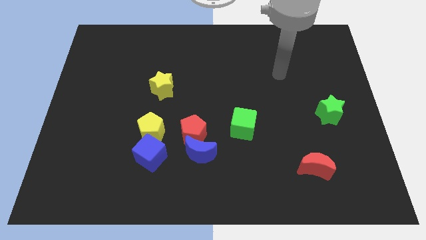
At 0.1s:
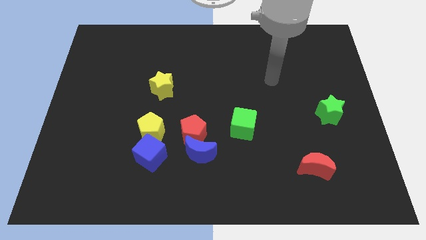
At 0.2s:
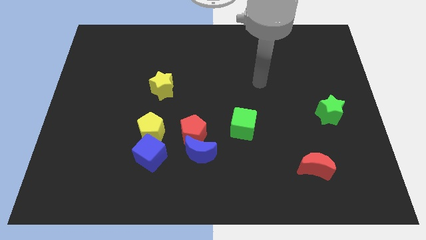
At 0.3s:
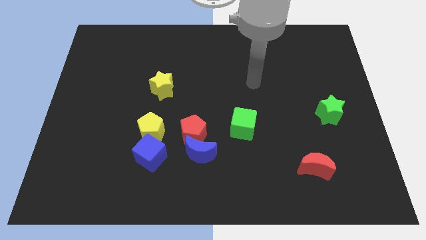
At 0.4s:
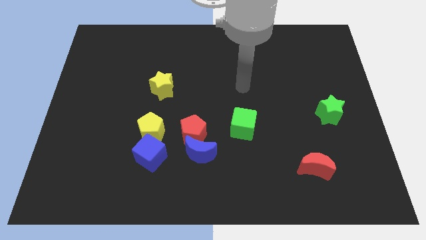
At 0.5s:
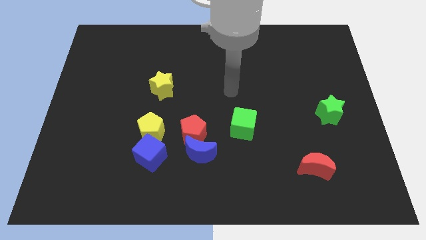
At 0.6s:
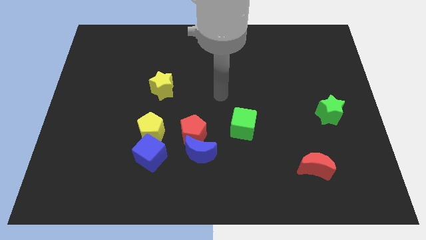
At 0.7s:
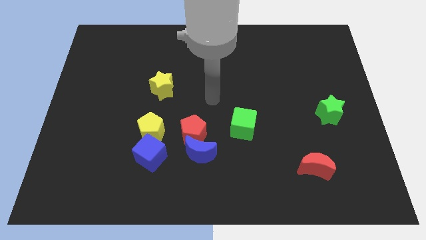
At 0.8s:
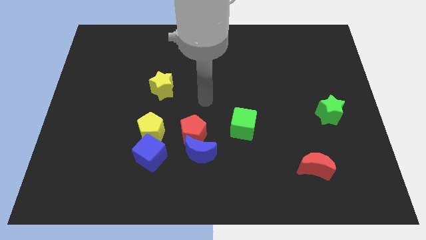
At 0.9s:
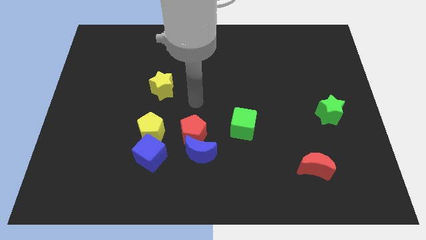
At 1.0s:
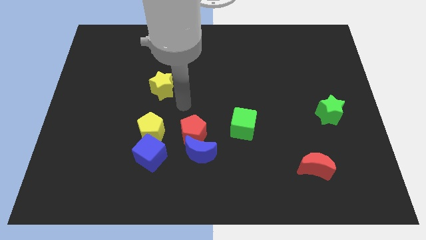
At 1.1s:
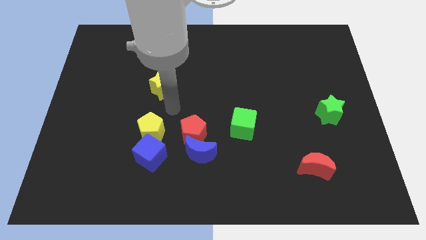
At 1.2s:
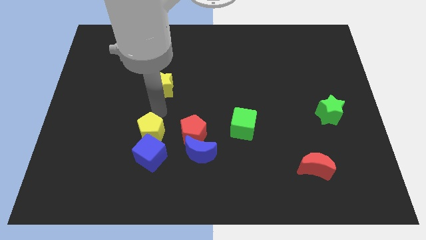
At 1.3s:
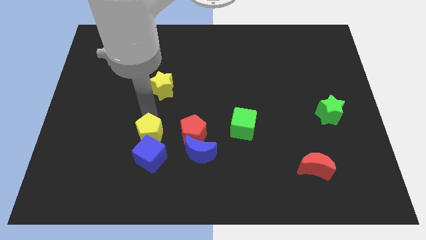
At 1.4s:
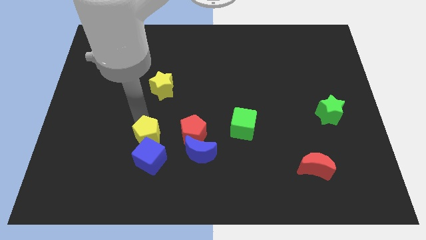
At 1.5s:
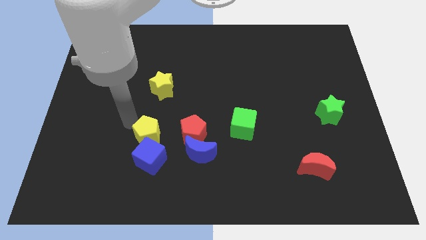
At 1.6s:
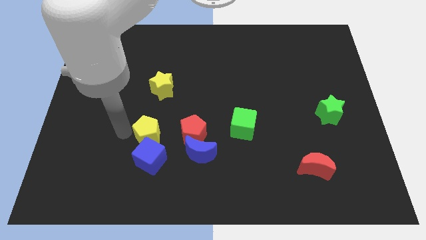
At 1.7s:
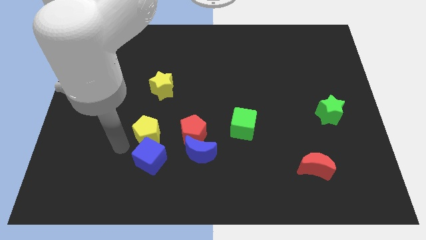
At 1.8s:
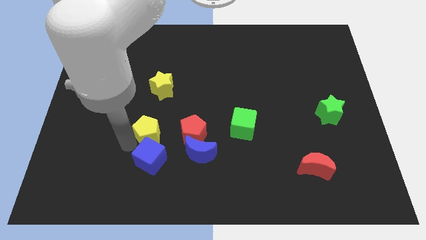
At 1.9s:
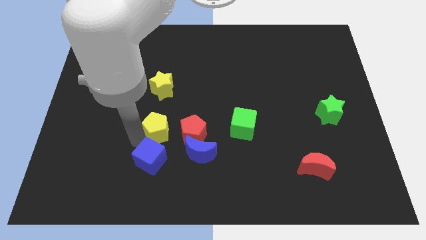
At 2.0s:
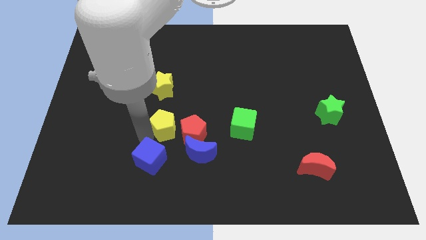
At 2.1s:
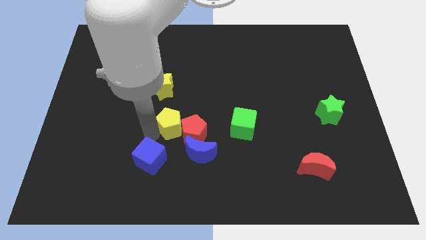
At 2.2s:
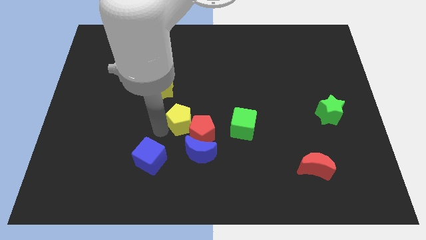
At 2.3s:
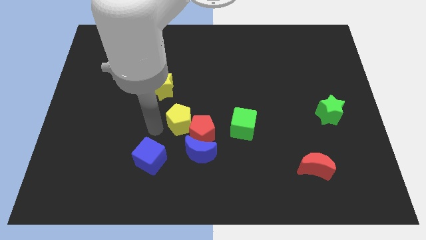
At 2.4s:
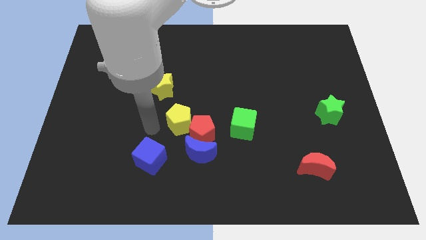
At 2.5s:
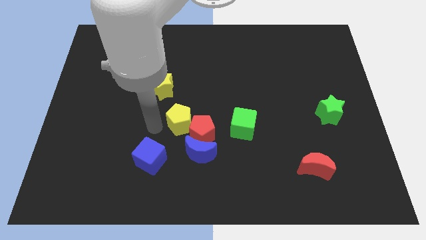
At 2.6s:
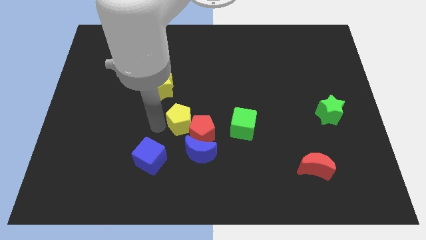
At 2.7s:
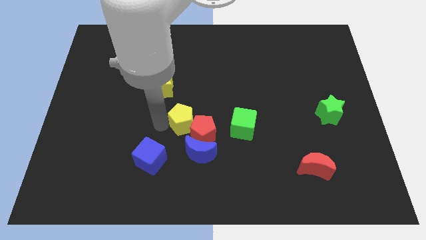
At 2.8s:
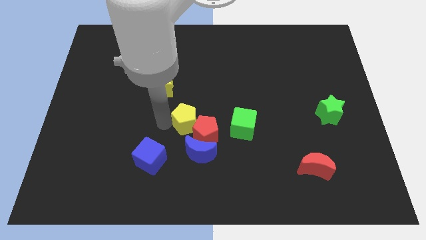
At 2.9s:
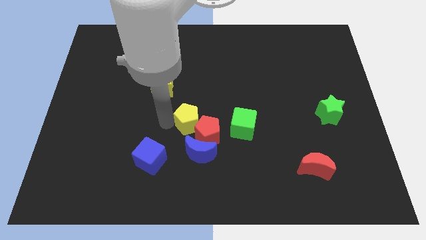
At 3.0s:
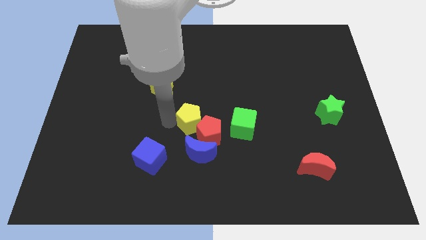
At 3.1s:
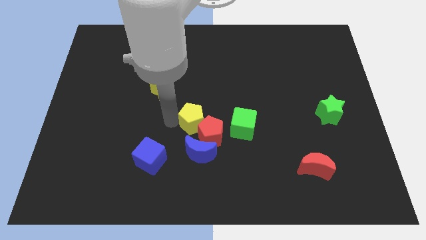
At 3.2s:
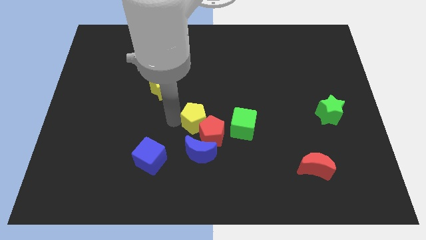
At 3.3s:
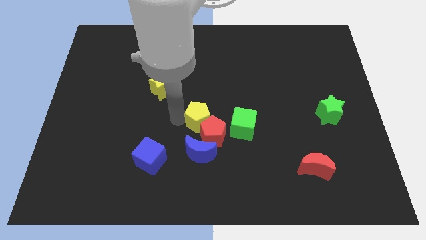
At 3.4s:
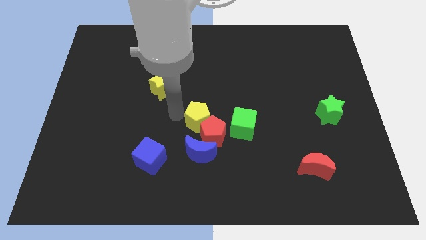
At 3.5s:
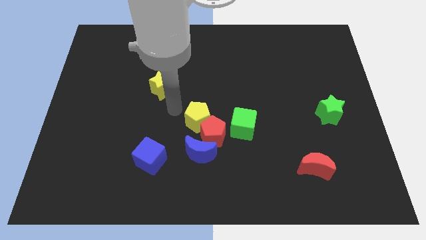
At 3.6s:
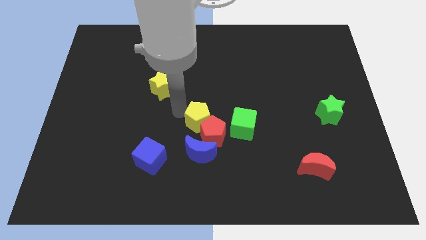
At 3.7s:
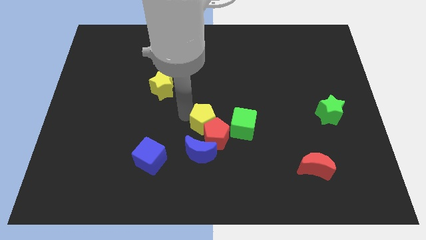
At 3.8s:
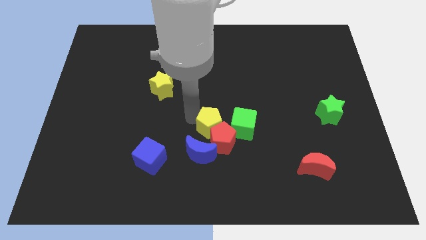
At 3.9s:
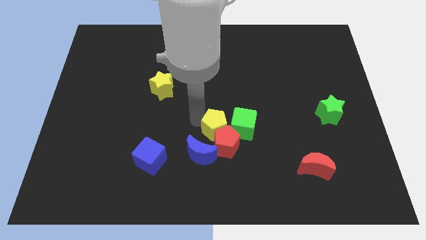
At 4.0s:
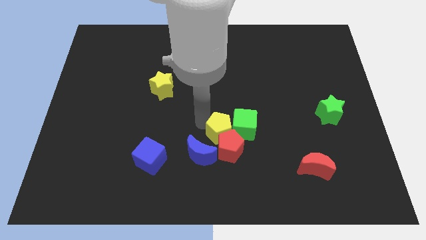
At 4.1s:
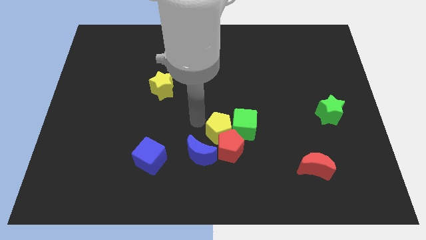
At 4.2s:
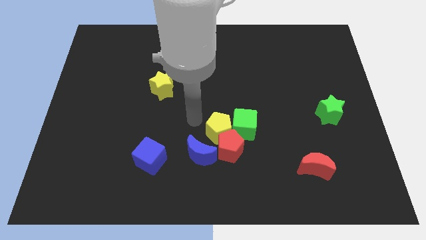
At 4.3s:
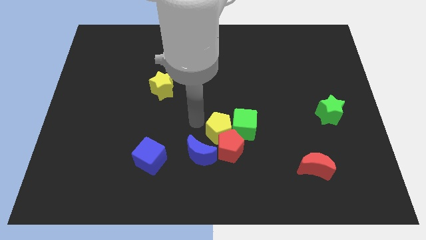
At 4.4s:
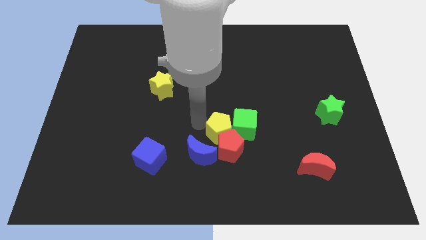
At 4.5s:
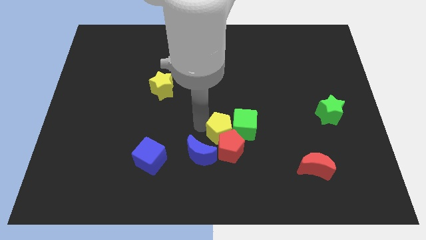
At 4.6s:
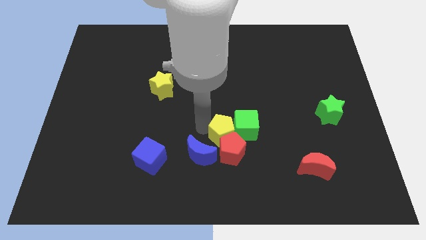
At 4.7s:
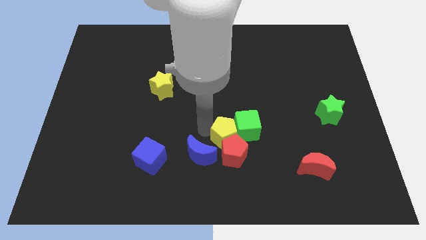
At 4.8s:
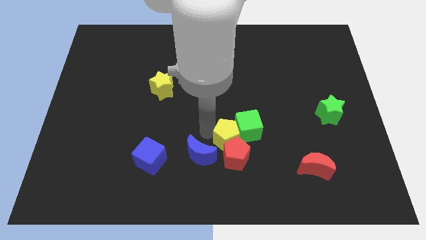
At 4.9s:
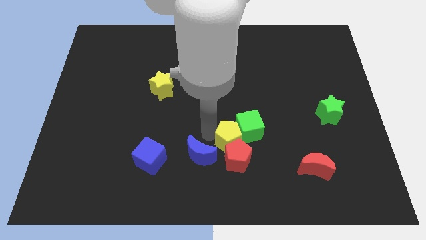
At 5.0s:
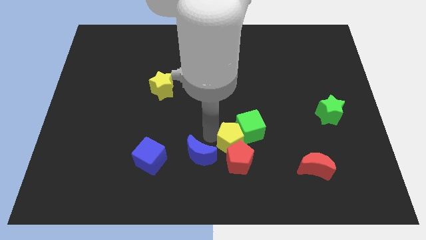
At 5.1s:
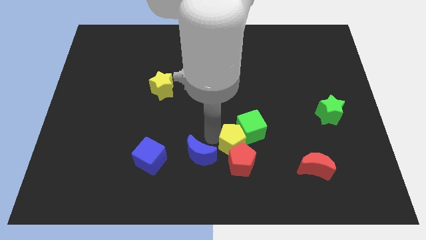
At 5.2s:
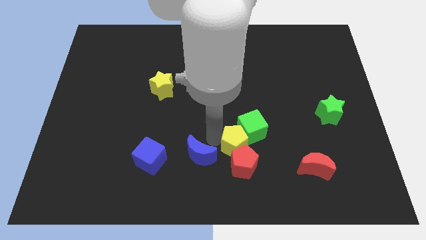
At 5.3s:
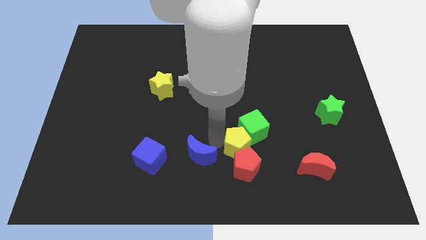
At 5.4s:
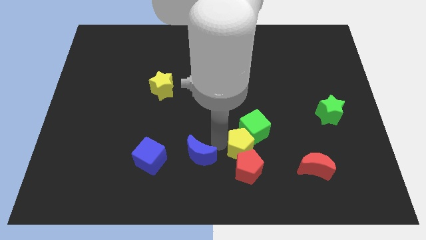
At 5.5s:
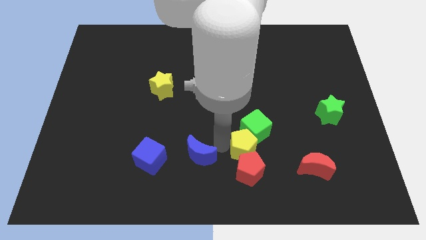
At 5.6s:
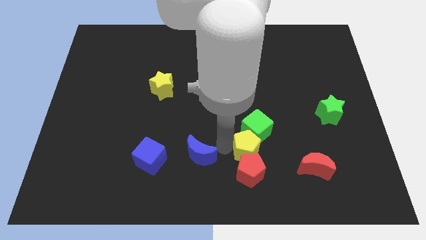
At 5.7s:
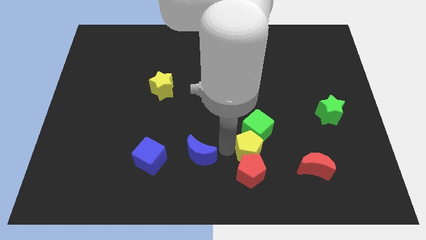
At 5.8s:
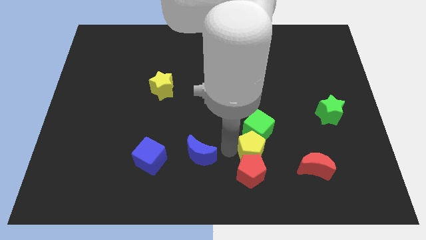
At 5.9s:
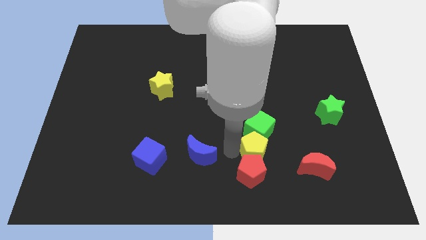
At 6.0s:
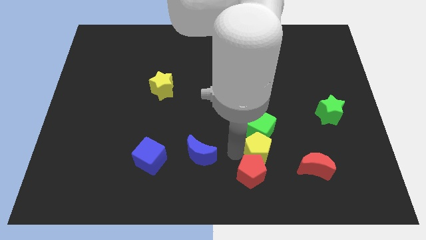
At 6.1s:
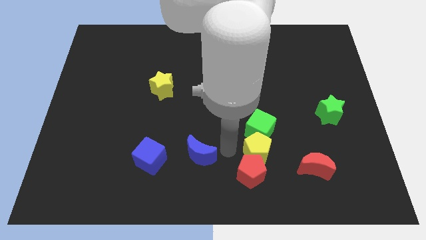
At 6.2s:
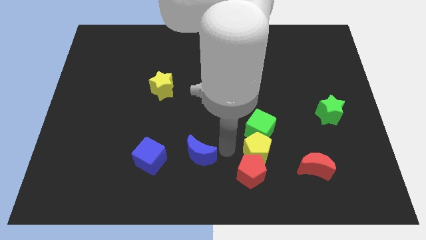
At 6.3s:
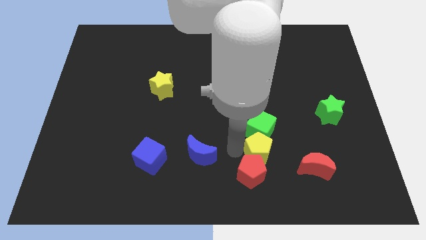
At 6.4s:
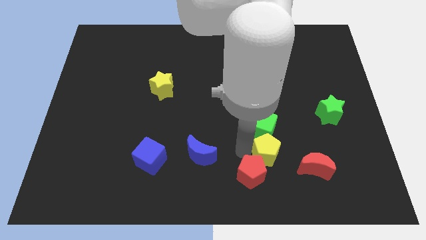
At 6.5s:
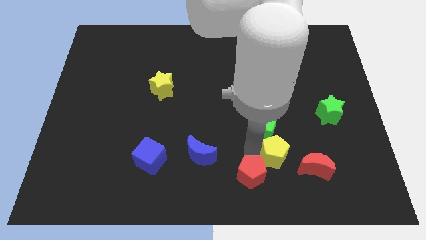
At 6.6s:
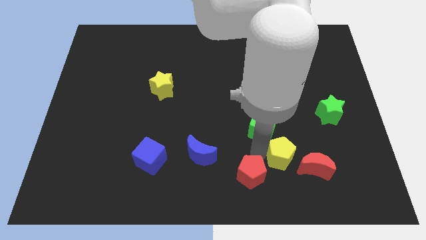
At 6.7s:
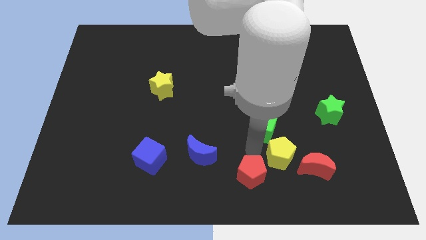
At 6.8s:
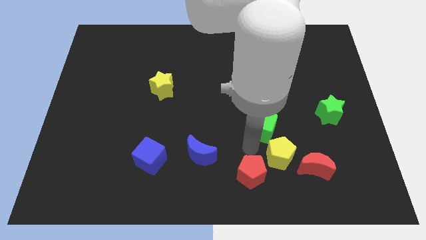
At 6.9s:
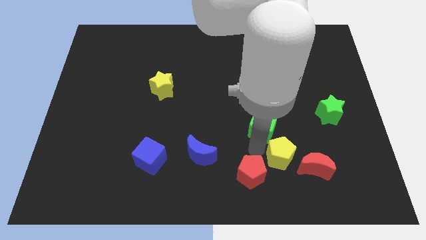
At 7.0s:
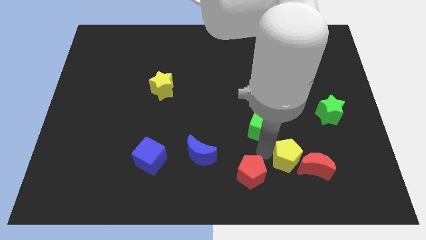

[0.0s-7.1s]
slide the yellow pentagon towards the red moon

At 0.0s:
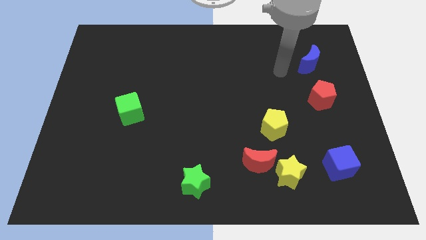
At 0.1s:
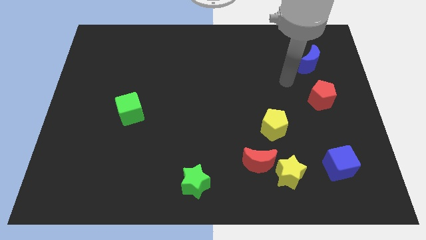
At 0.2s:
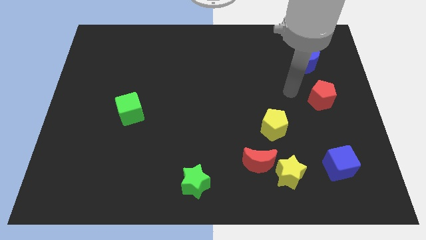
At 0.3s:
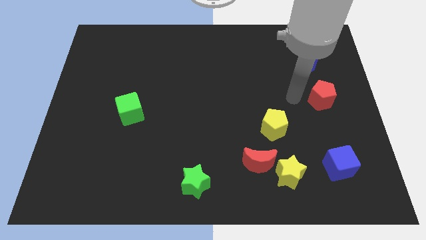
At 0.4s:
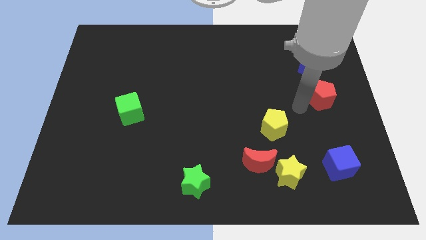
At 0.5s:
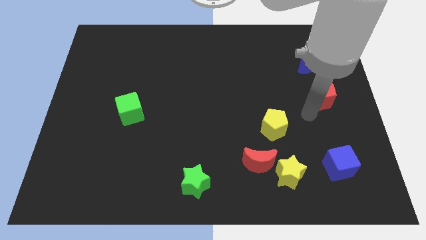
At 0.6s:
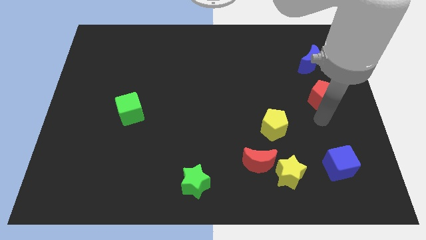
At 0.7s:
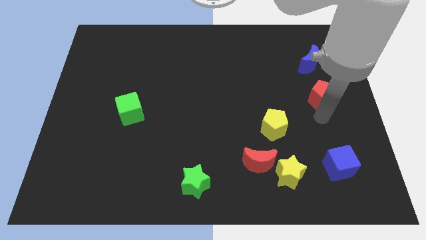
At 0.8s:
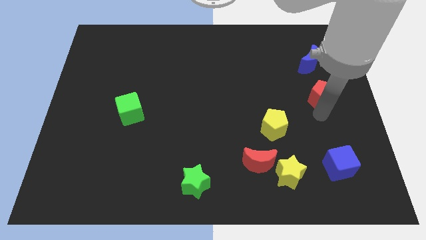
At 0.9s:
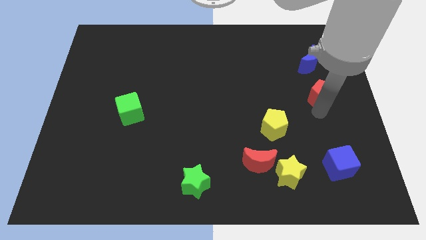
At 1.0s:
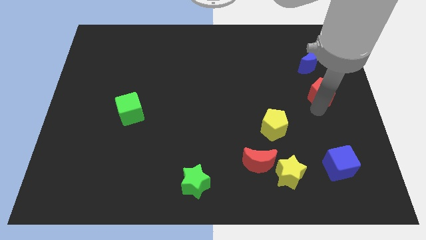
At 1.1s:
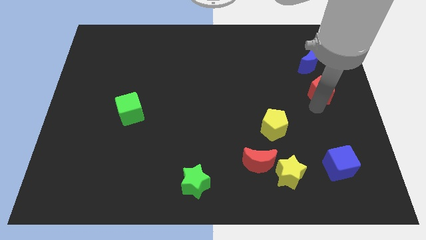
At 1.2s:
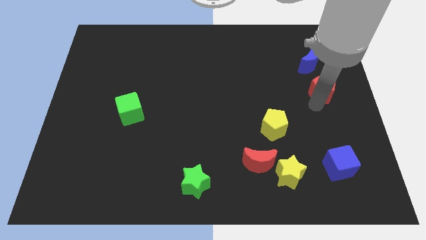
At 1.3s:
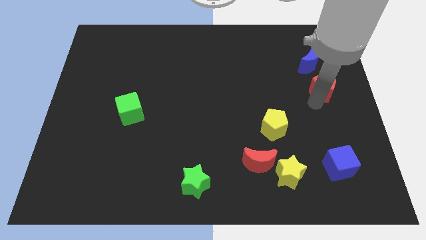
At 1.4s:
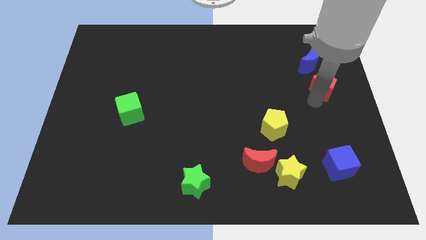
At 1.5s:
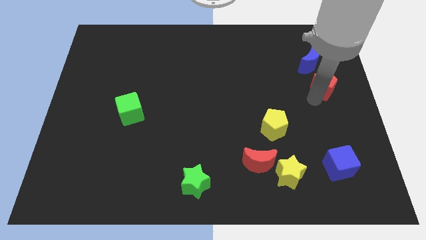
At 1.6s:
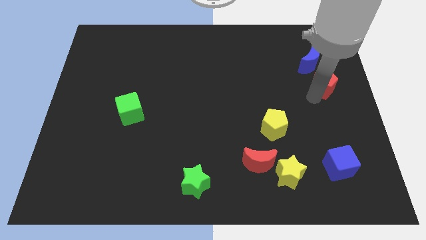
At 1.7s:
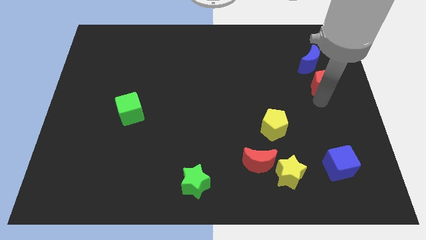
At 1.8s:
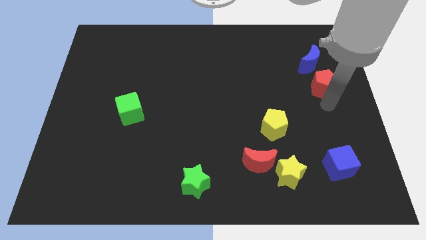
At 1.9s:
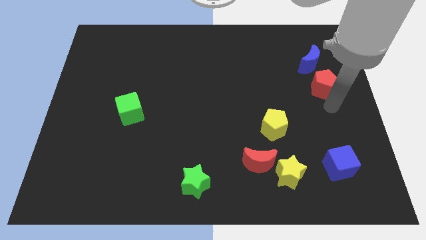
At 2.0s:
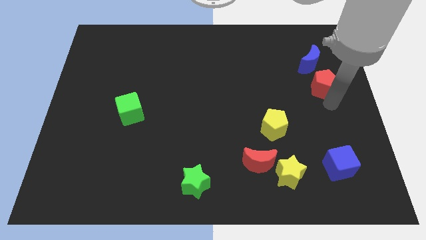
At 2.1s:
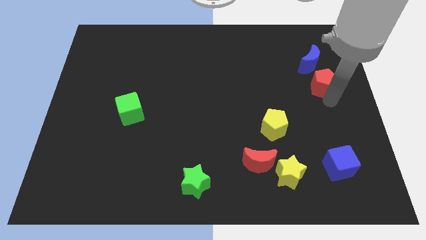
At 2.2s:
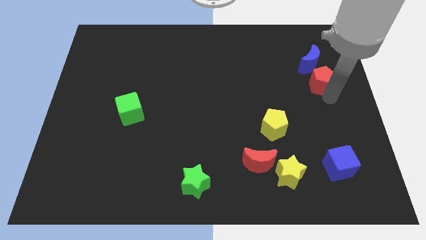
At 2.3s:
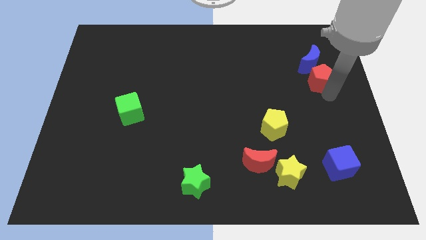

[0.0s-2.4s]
push the red pentagon next to the blue moon
